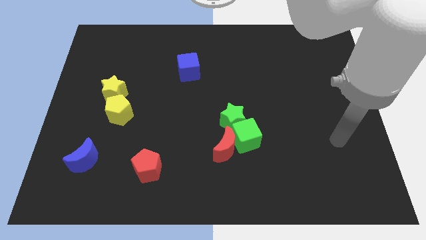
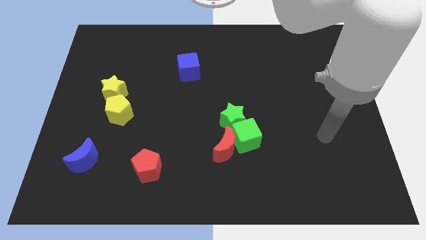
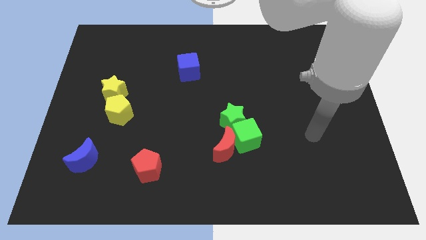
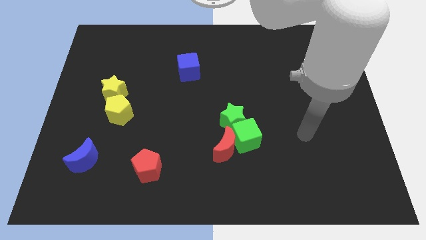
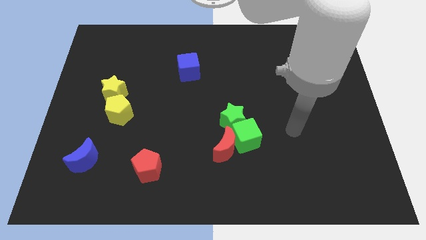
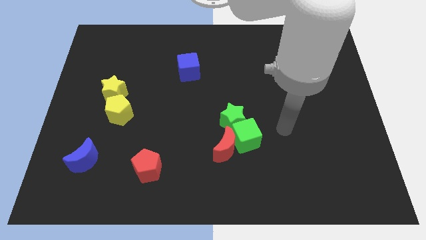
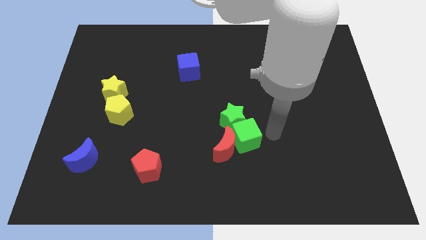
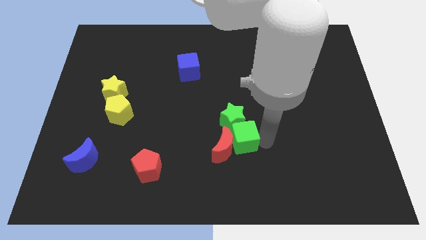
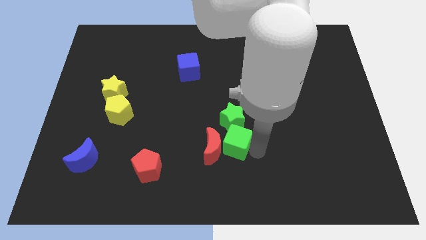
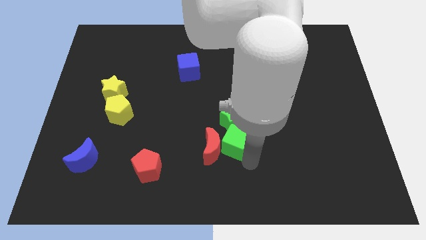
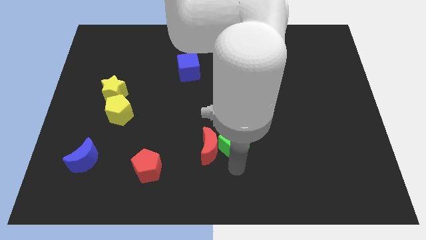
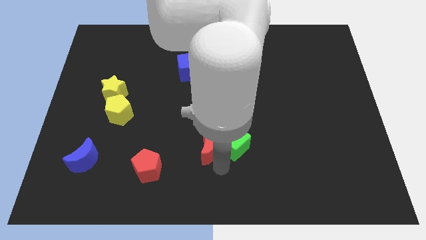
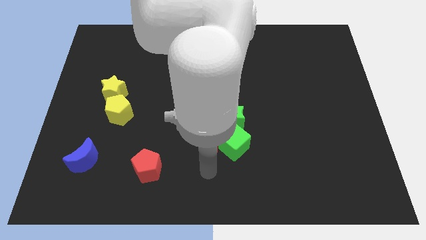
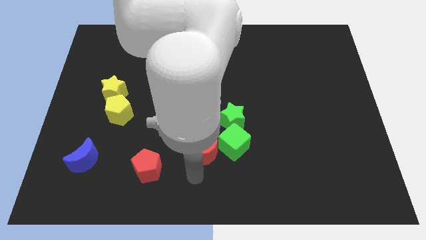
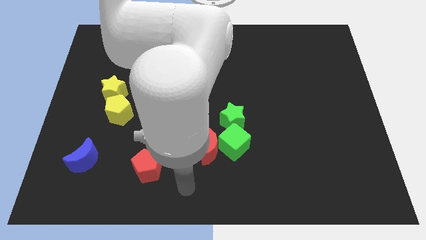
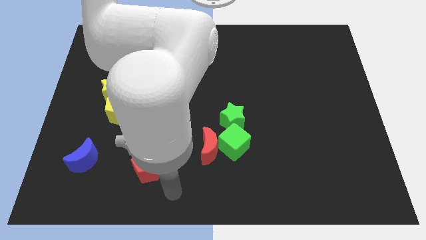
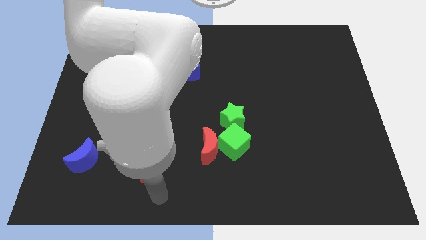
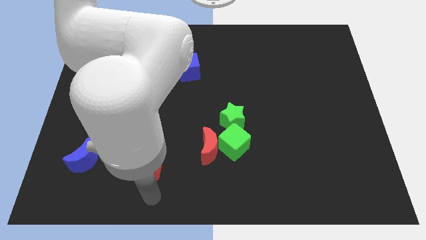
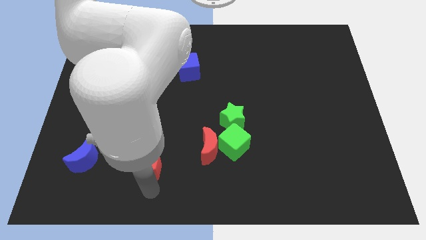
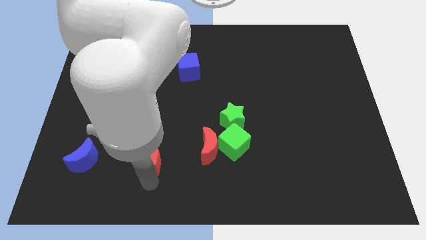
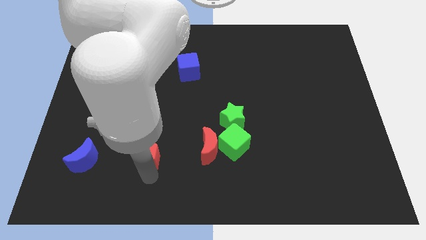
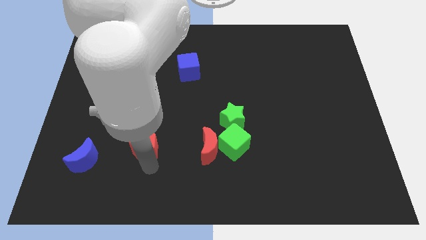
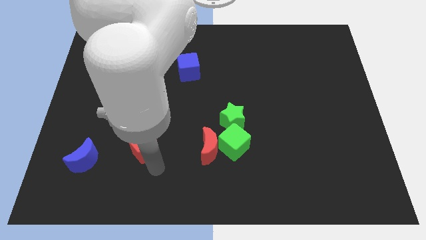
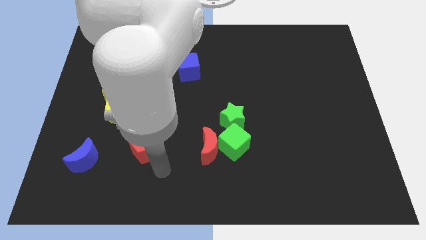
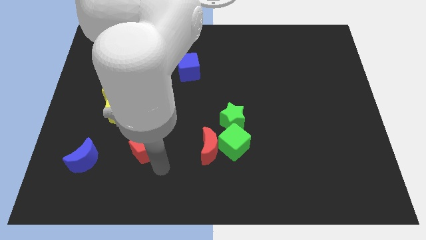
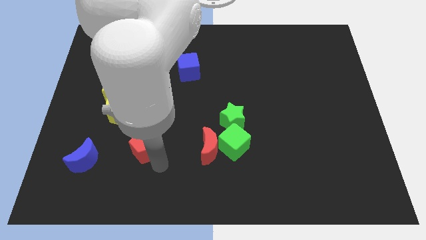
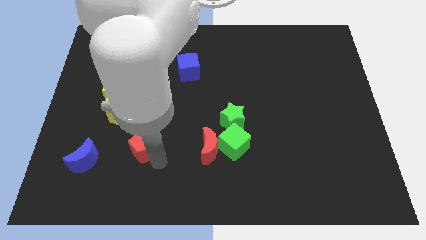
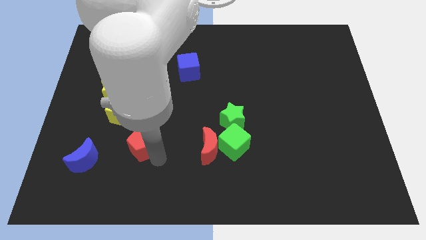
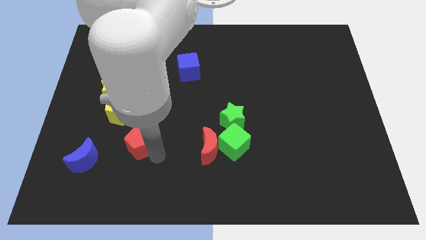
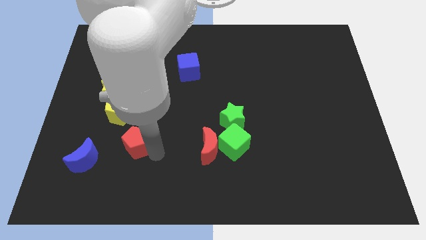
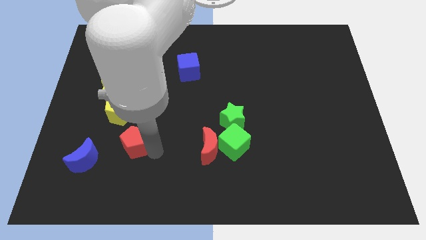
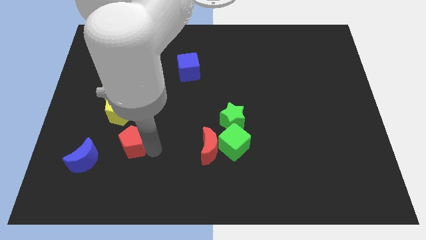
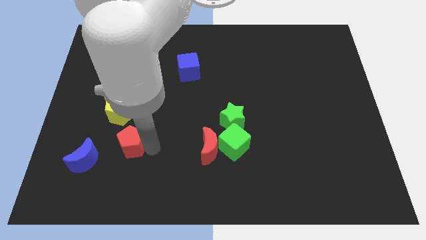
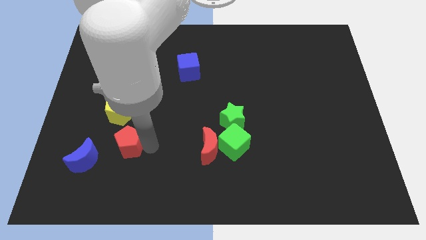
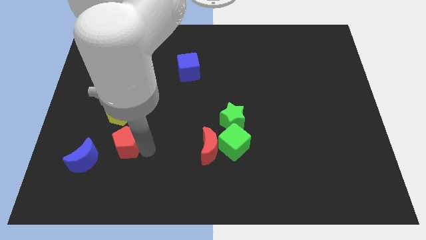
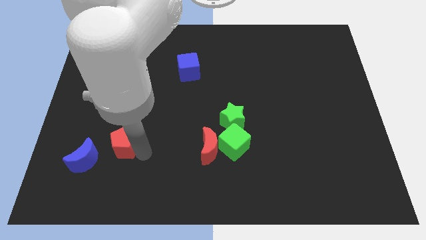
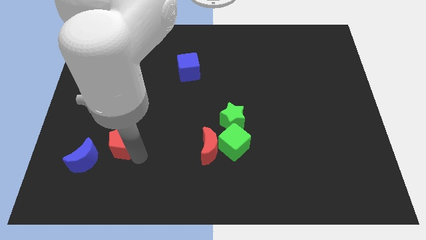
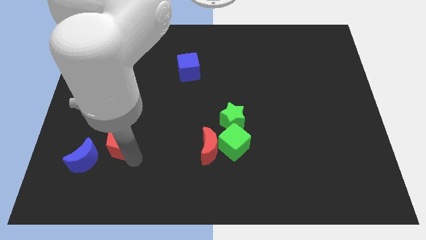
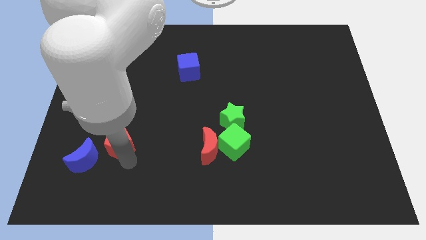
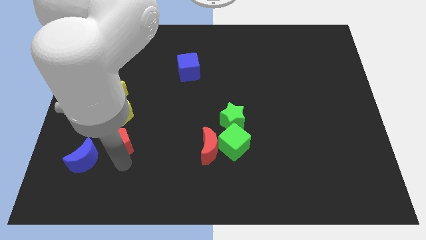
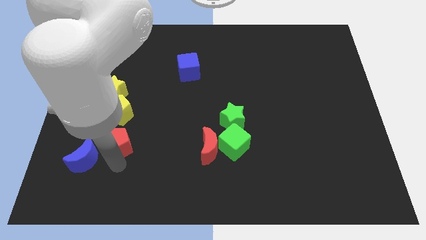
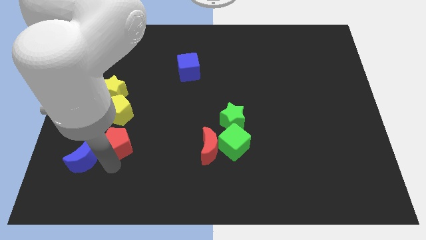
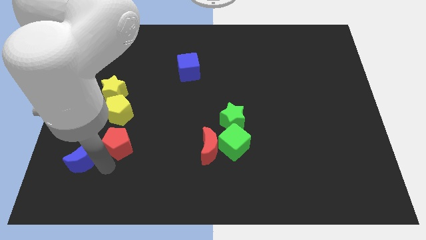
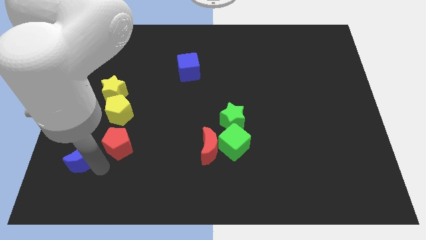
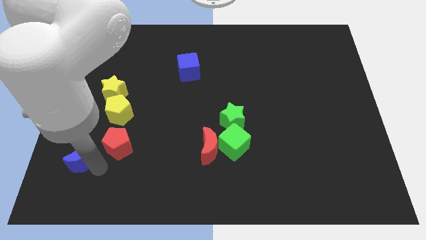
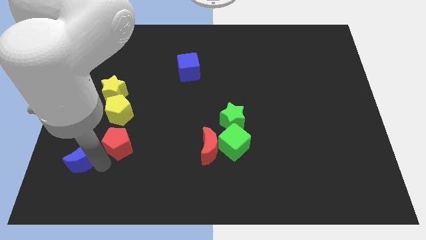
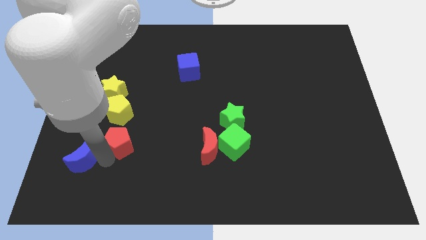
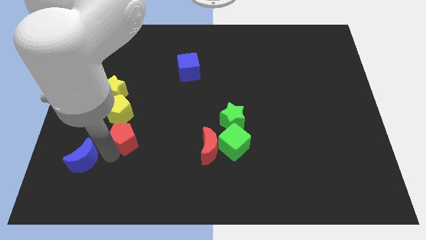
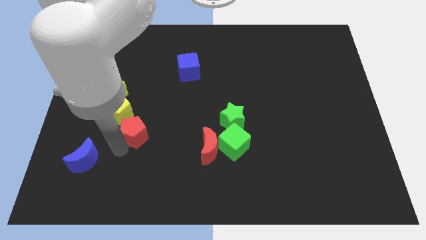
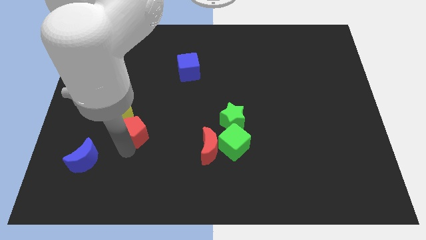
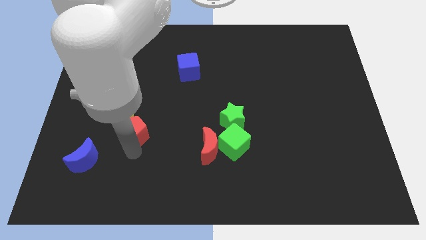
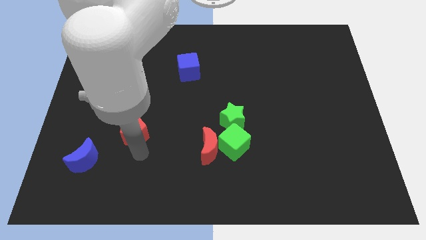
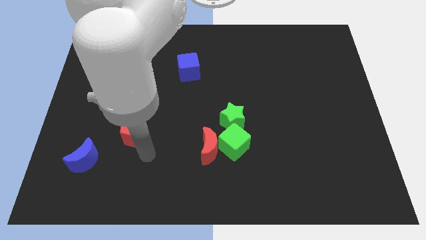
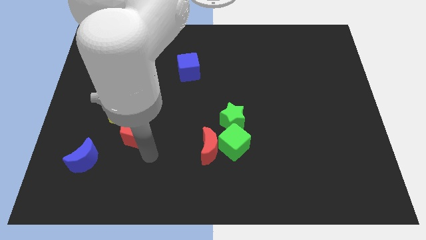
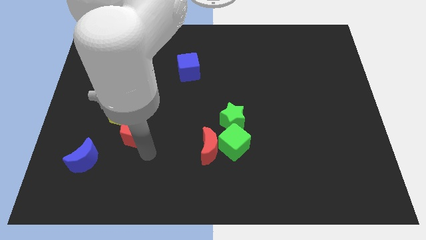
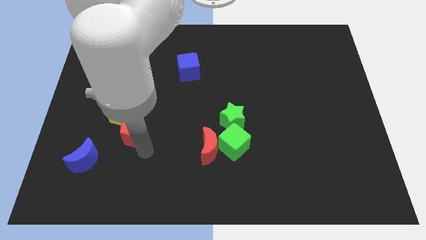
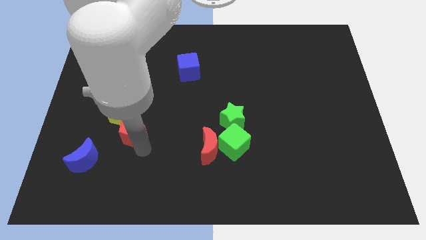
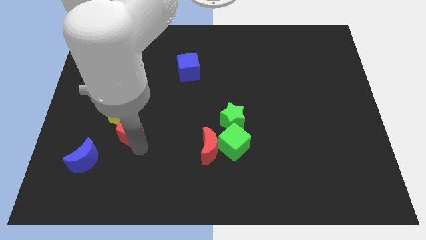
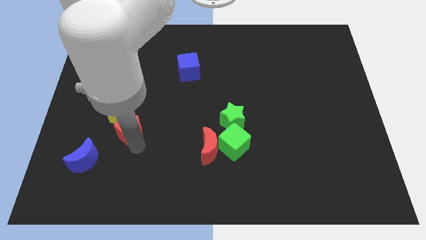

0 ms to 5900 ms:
slide the red pentagon towards the yellow pentagon

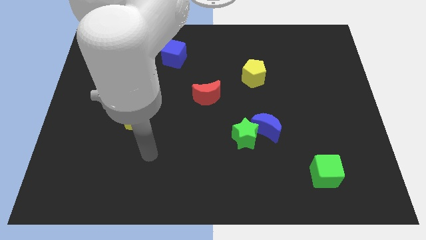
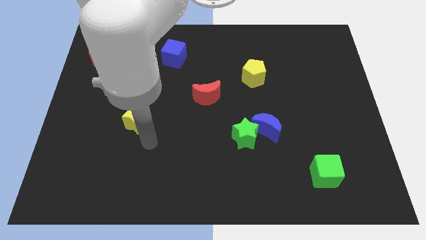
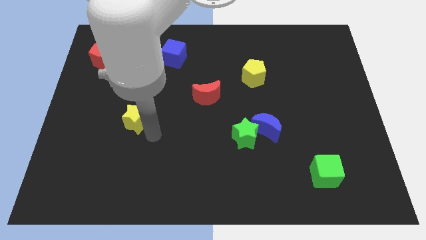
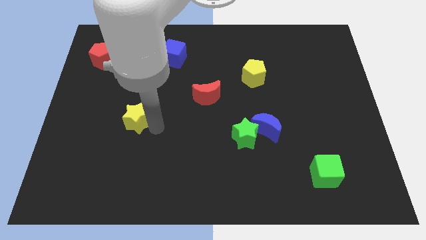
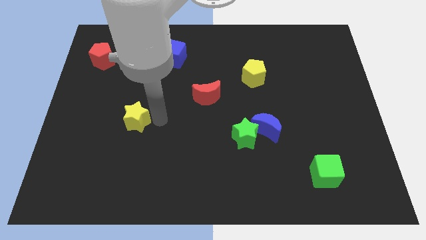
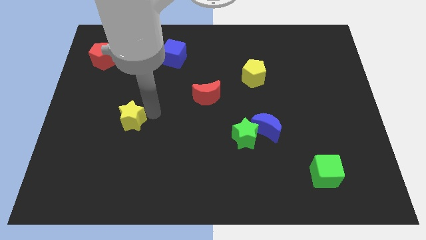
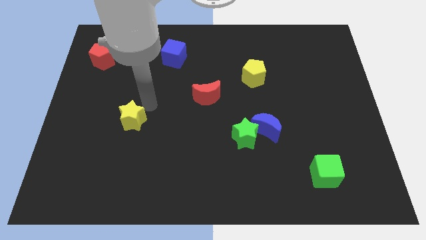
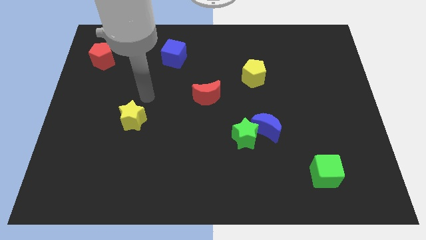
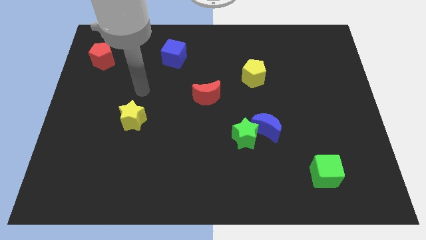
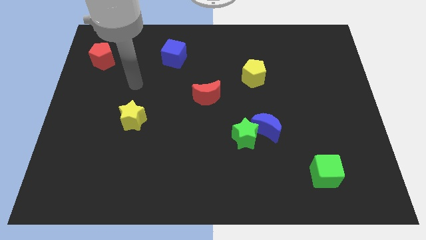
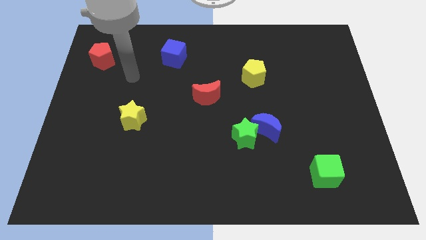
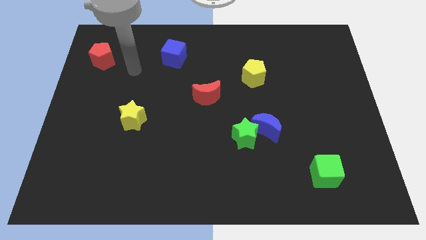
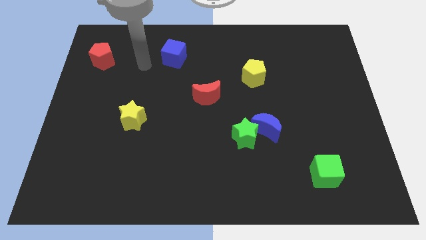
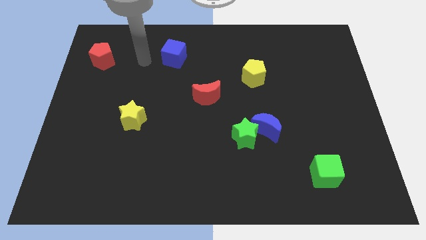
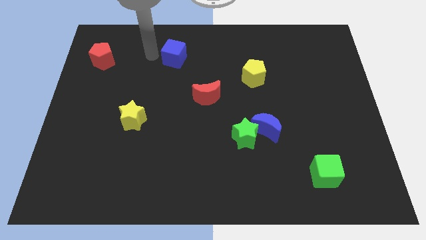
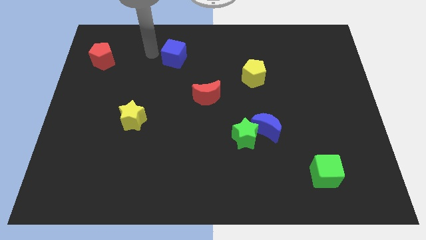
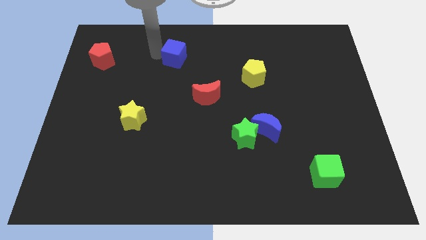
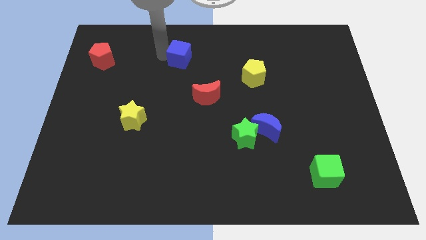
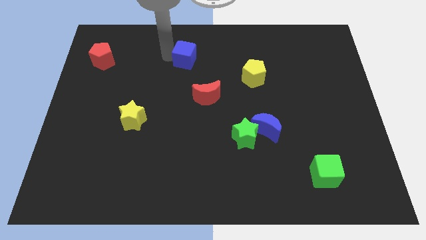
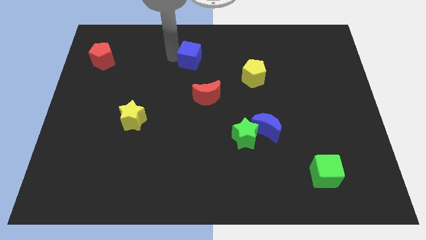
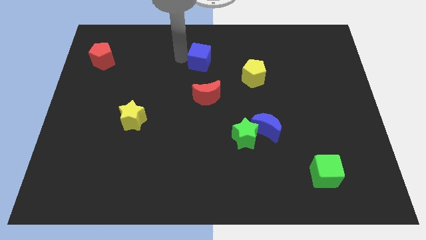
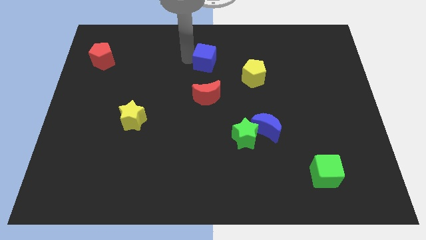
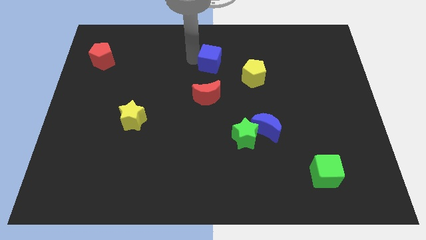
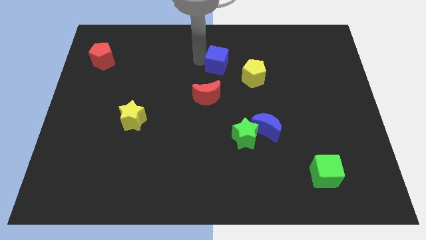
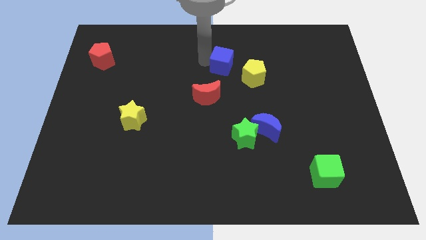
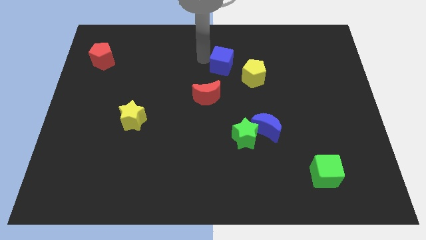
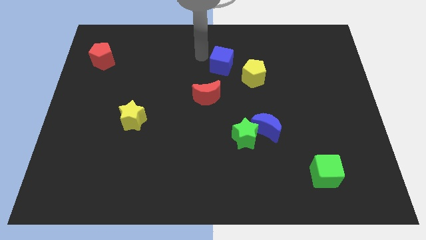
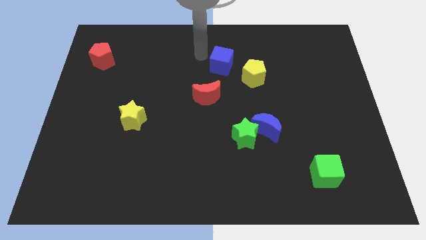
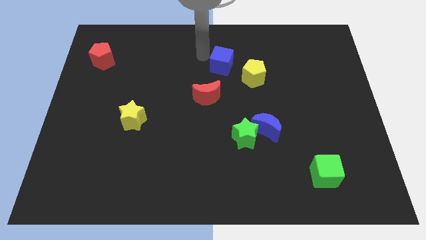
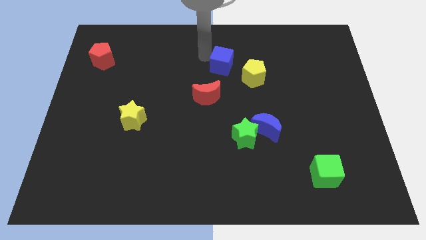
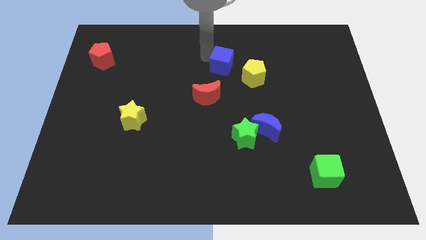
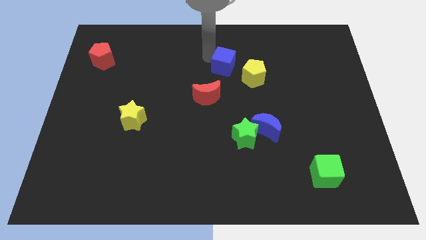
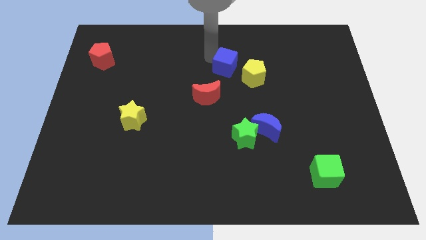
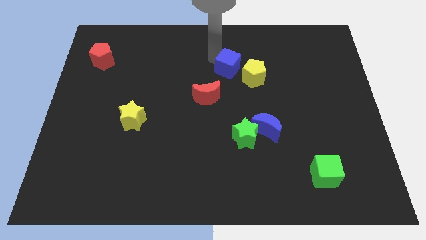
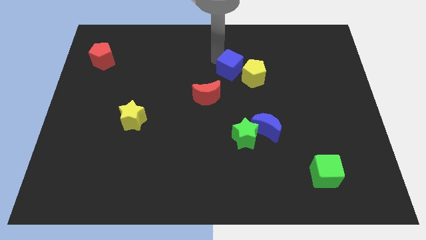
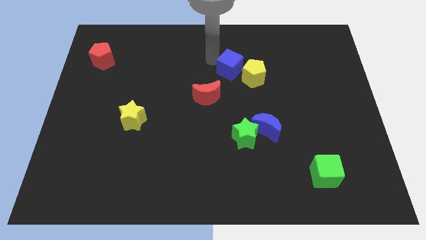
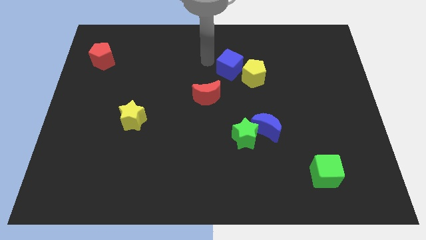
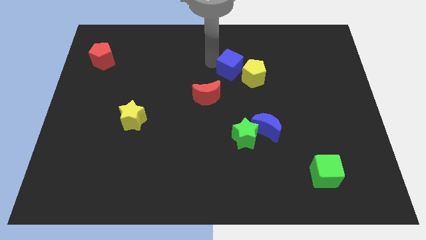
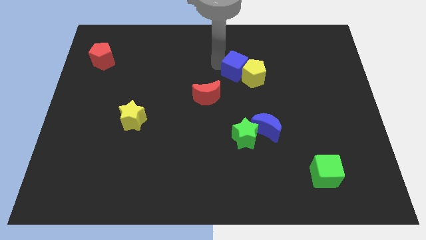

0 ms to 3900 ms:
push the blue cube close to the yellow pentagon
